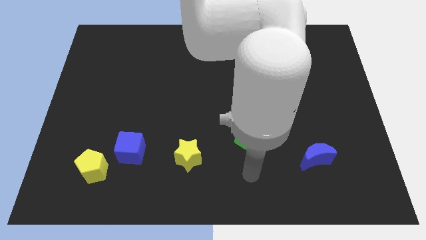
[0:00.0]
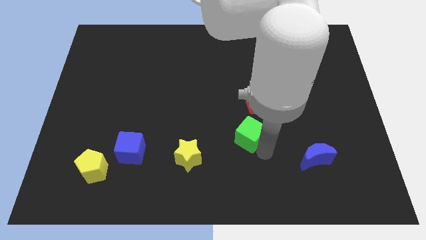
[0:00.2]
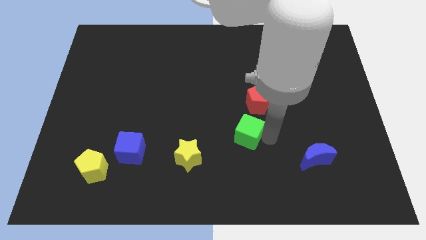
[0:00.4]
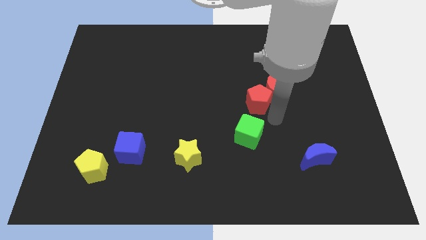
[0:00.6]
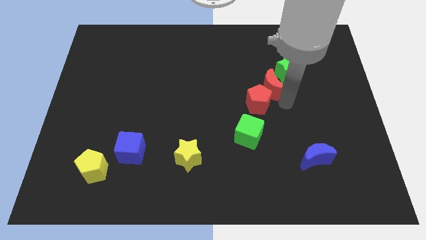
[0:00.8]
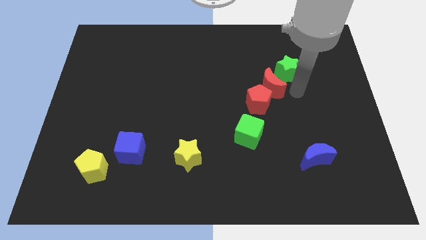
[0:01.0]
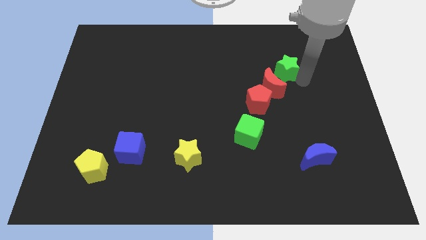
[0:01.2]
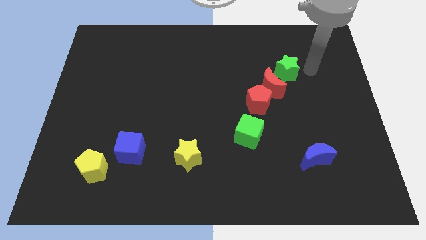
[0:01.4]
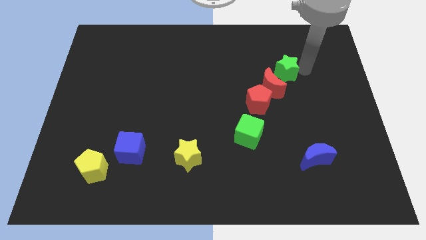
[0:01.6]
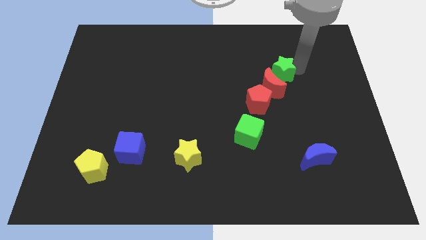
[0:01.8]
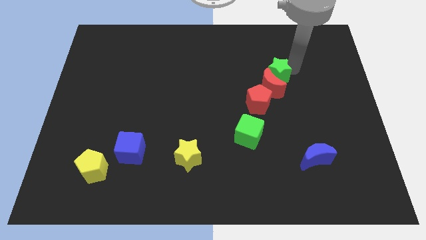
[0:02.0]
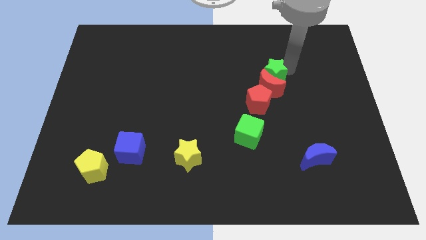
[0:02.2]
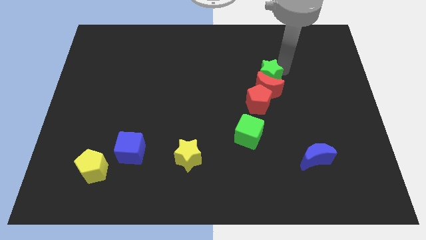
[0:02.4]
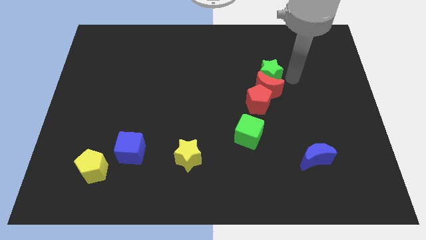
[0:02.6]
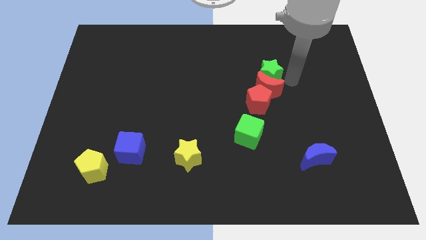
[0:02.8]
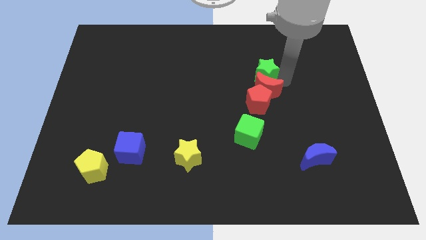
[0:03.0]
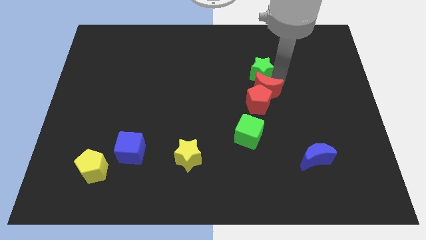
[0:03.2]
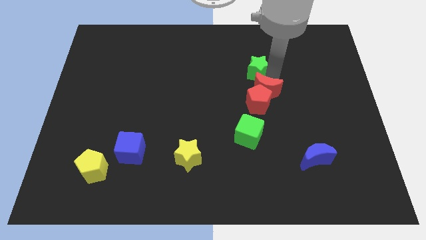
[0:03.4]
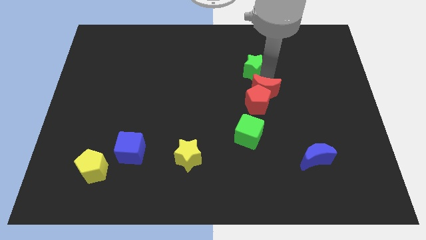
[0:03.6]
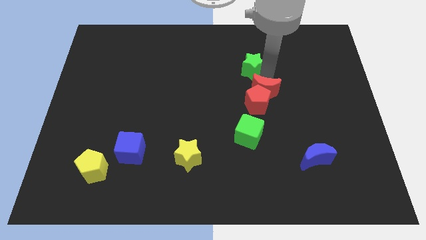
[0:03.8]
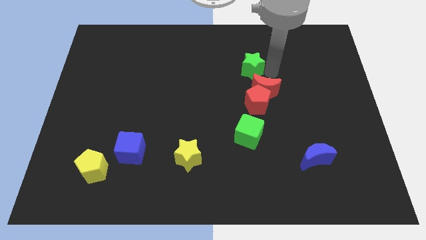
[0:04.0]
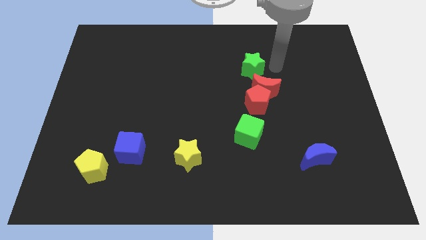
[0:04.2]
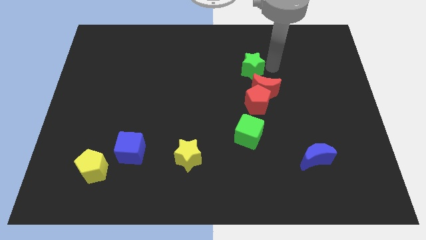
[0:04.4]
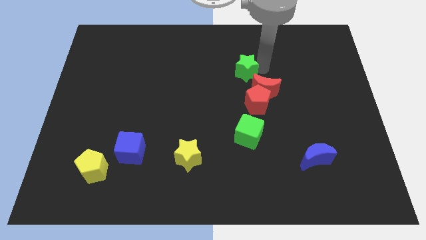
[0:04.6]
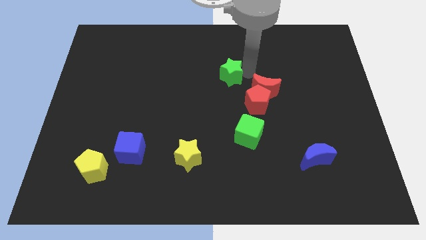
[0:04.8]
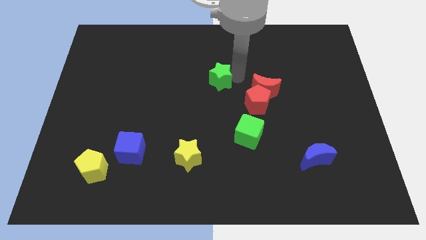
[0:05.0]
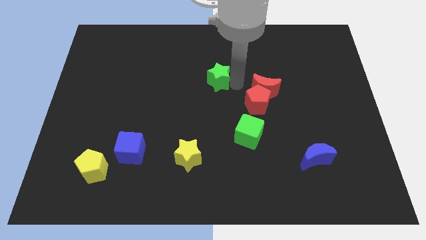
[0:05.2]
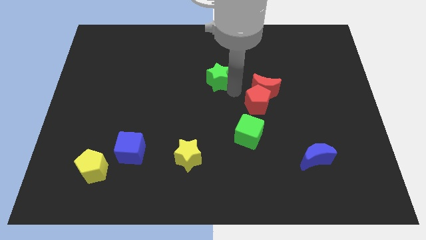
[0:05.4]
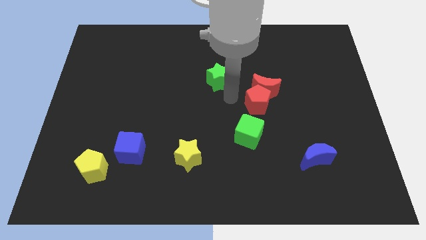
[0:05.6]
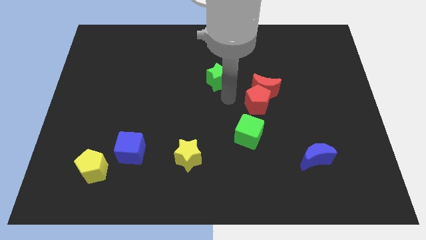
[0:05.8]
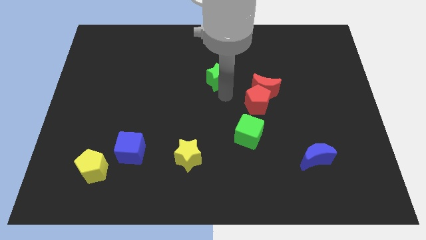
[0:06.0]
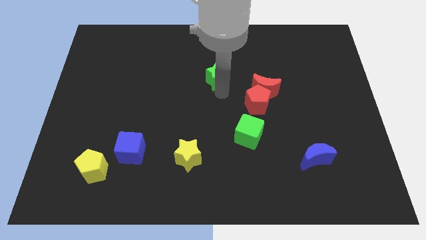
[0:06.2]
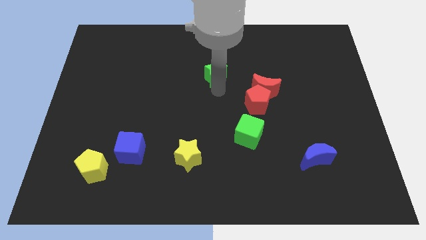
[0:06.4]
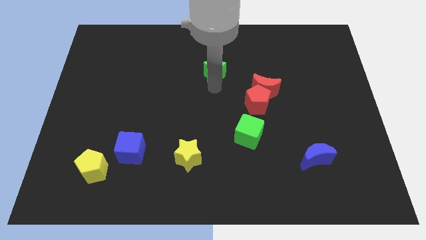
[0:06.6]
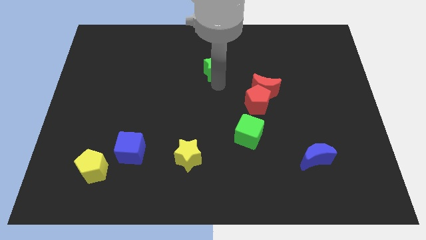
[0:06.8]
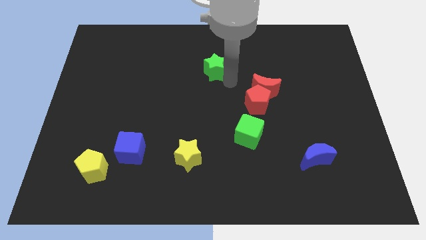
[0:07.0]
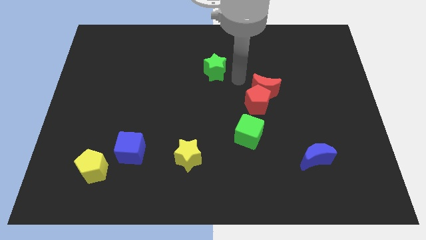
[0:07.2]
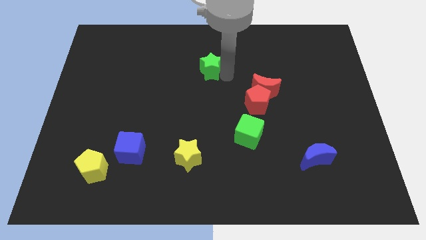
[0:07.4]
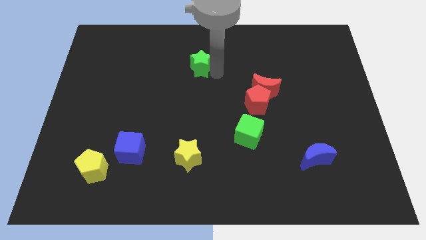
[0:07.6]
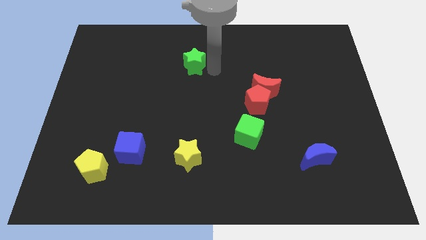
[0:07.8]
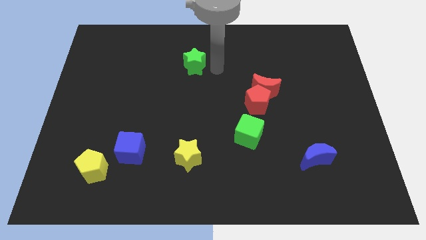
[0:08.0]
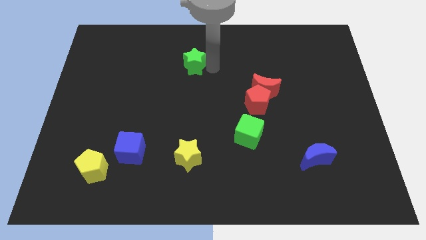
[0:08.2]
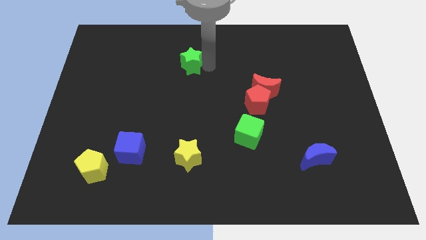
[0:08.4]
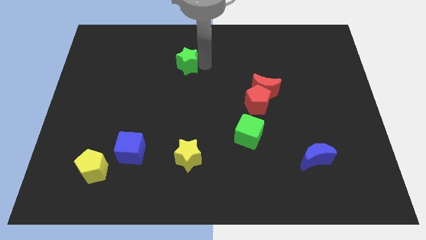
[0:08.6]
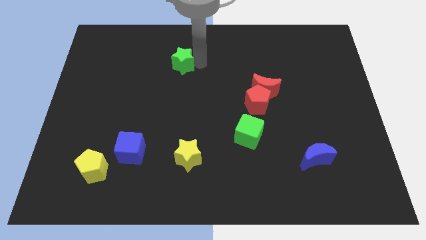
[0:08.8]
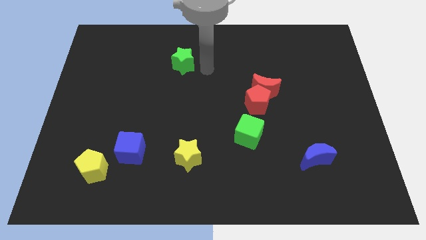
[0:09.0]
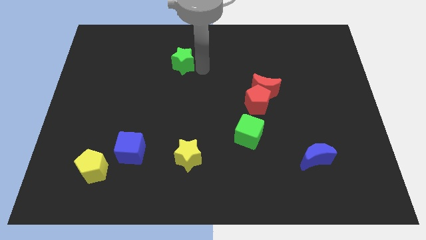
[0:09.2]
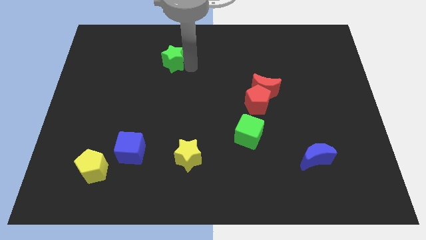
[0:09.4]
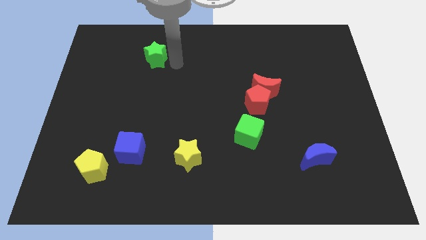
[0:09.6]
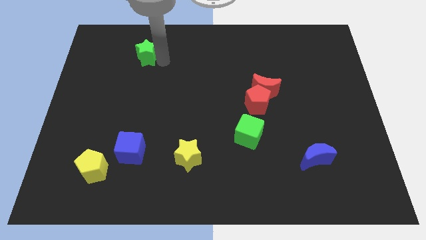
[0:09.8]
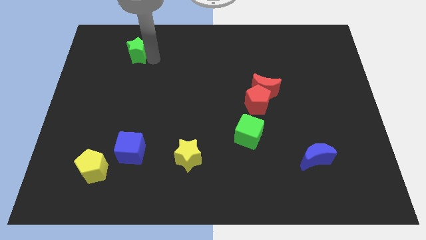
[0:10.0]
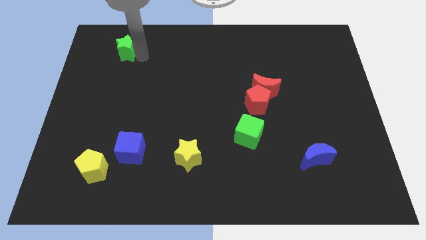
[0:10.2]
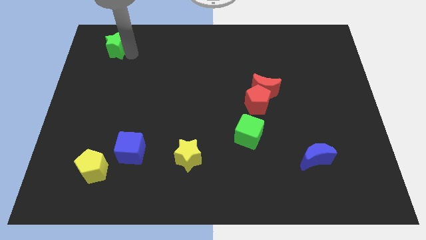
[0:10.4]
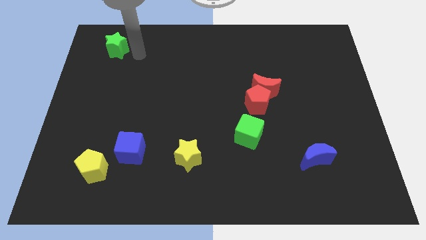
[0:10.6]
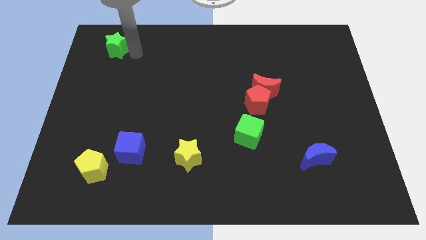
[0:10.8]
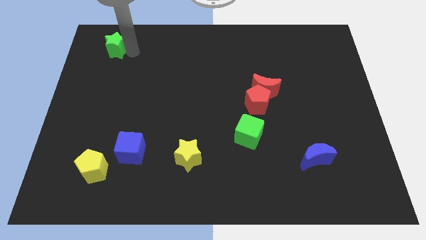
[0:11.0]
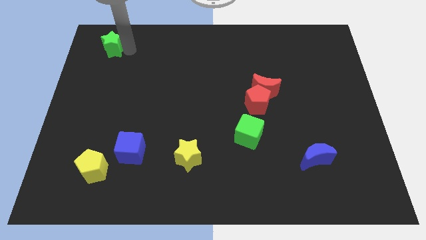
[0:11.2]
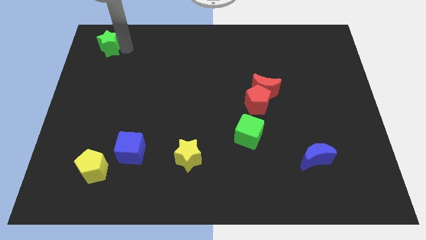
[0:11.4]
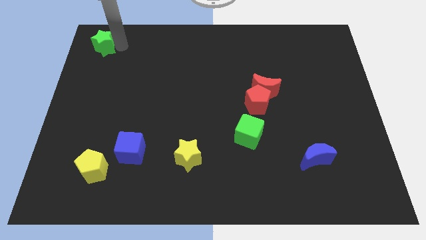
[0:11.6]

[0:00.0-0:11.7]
push the green star to the top left of the board

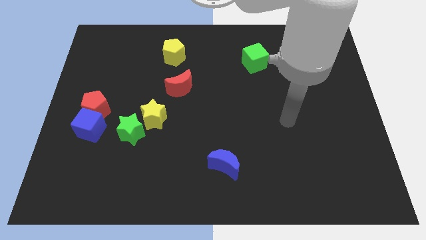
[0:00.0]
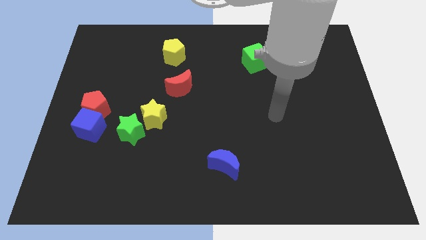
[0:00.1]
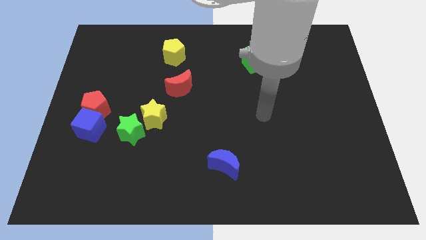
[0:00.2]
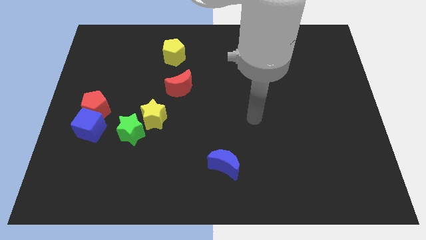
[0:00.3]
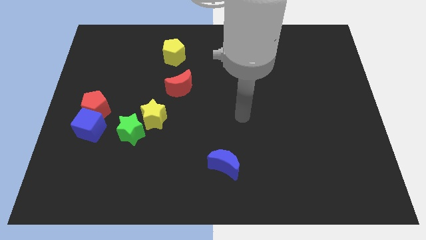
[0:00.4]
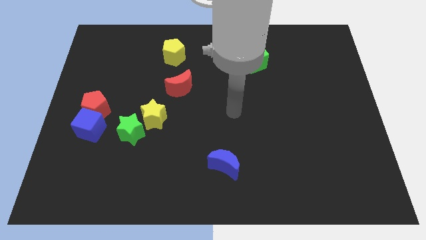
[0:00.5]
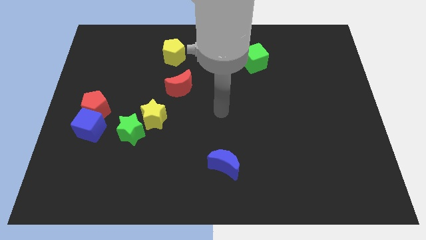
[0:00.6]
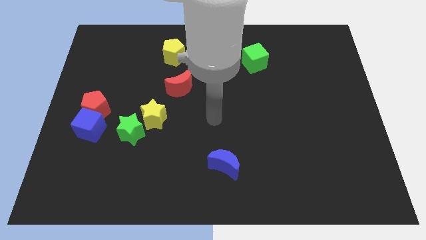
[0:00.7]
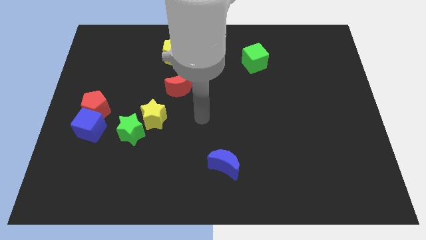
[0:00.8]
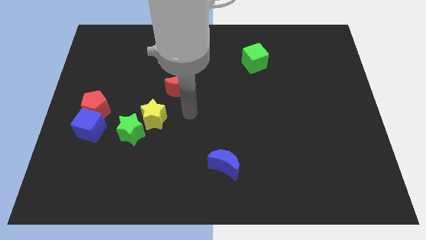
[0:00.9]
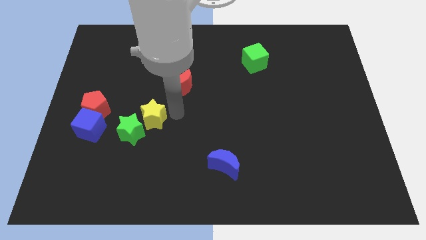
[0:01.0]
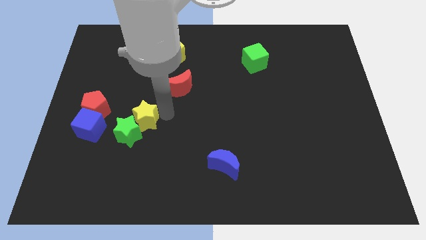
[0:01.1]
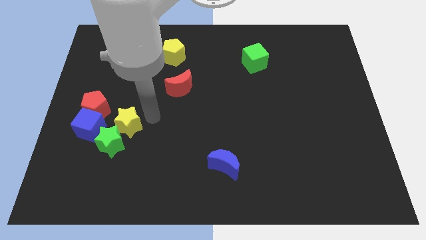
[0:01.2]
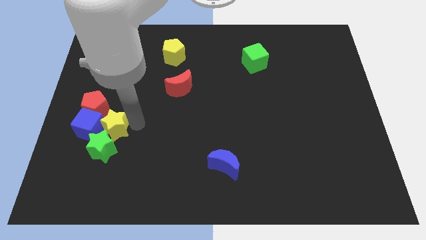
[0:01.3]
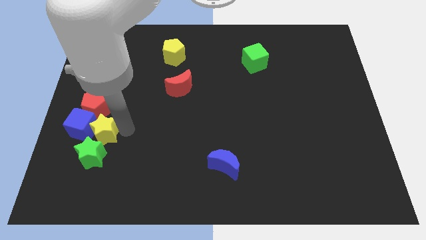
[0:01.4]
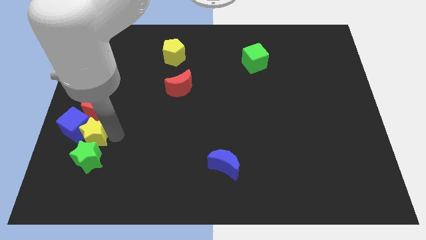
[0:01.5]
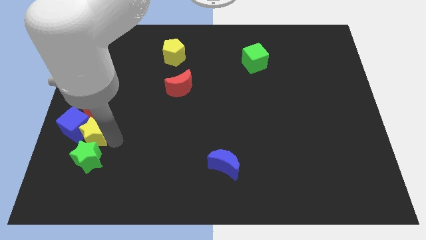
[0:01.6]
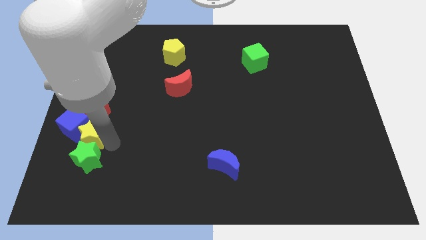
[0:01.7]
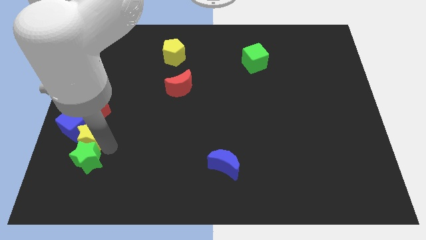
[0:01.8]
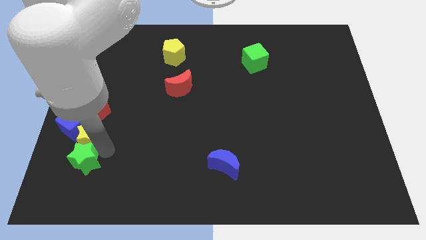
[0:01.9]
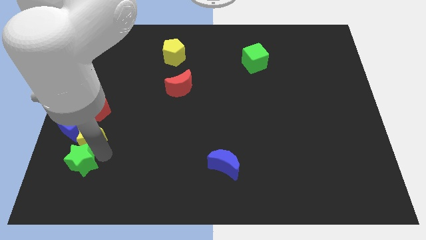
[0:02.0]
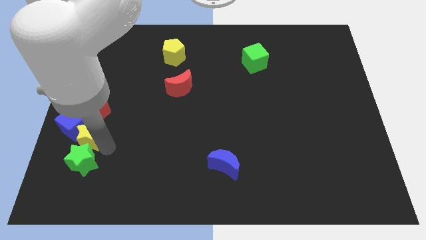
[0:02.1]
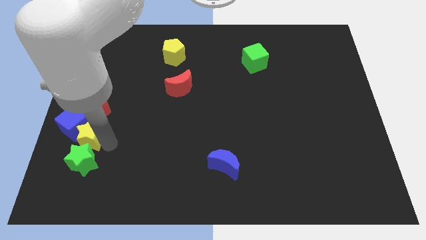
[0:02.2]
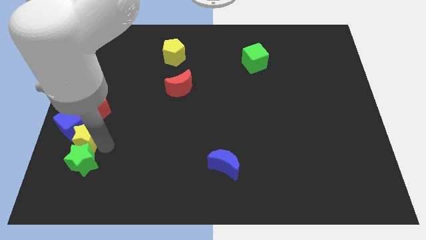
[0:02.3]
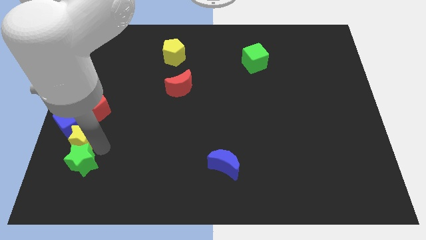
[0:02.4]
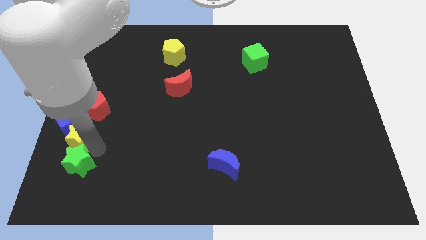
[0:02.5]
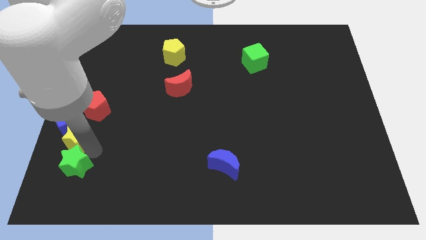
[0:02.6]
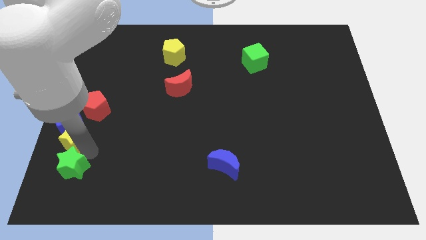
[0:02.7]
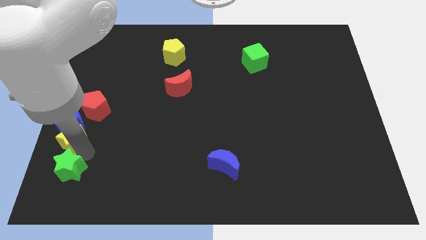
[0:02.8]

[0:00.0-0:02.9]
push the green star to the bottom left of the board
